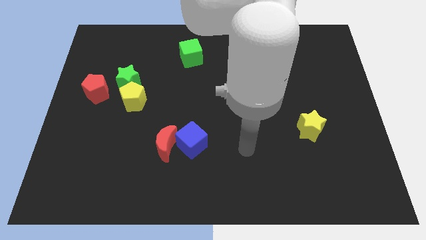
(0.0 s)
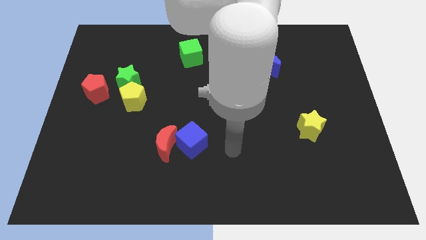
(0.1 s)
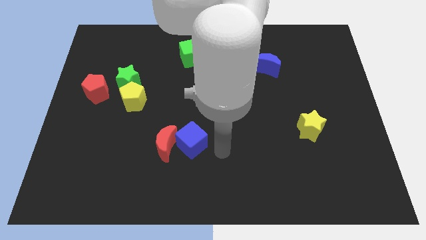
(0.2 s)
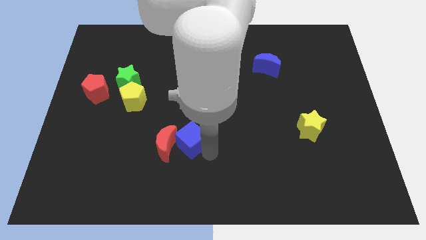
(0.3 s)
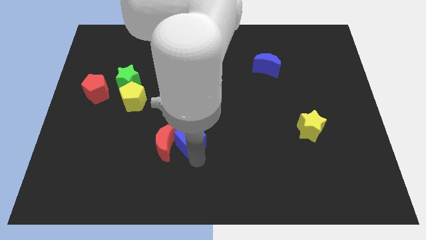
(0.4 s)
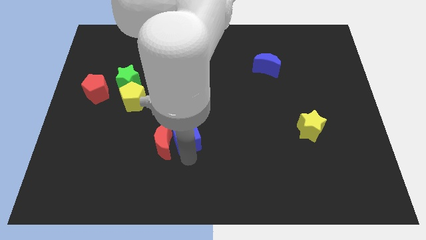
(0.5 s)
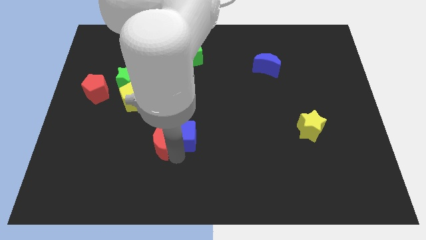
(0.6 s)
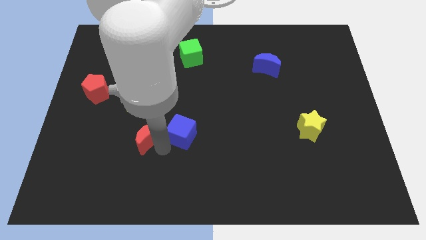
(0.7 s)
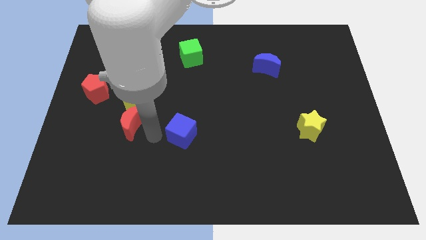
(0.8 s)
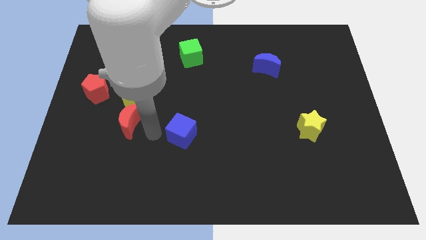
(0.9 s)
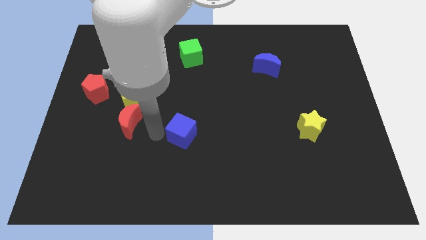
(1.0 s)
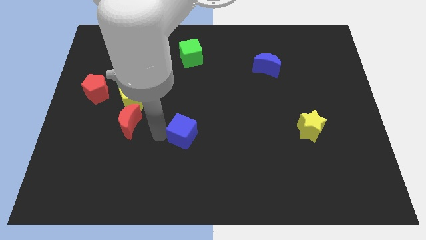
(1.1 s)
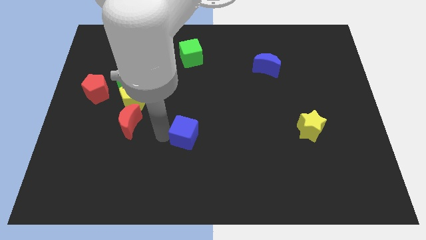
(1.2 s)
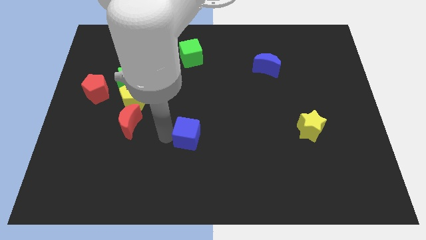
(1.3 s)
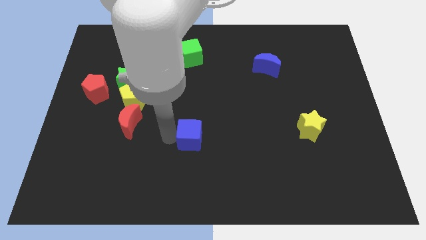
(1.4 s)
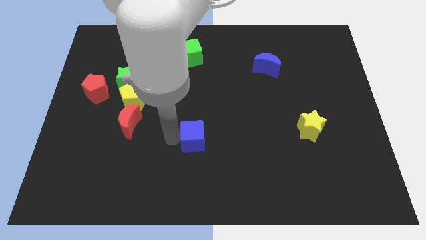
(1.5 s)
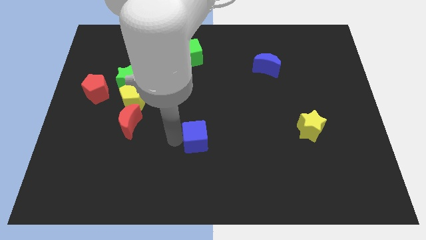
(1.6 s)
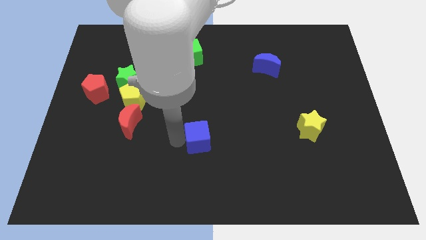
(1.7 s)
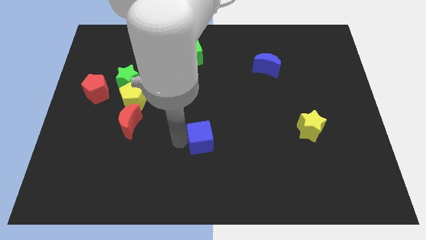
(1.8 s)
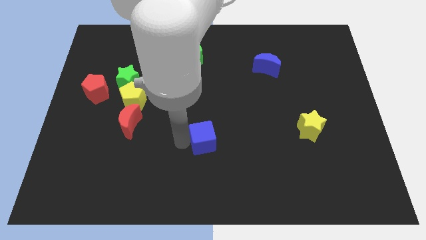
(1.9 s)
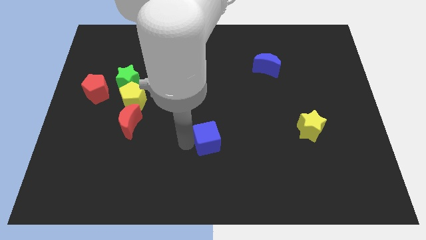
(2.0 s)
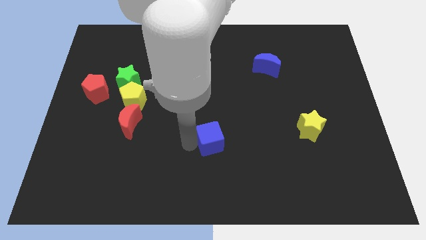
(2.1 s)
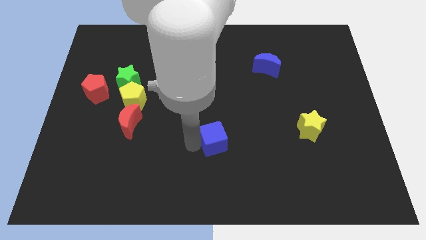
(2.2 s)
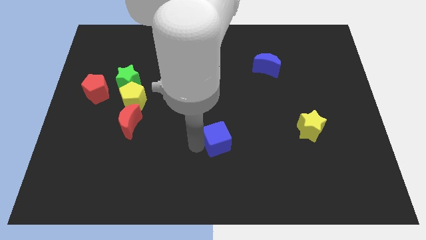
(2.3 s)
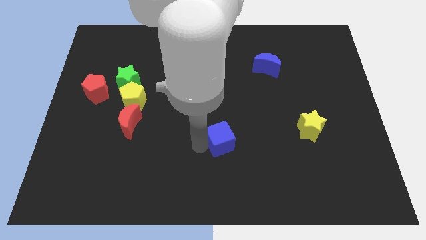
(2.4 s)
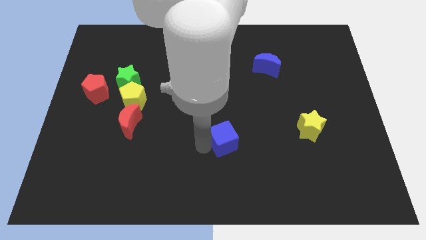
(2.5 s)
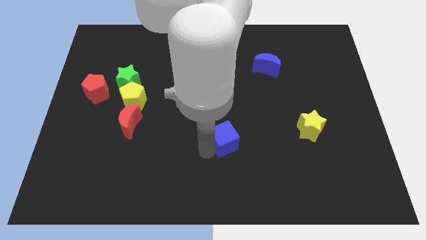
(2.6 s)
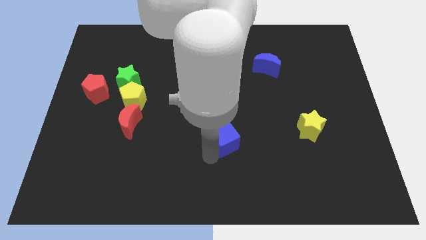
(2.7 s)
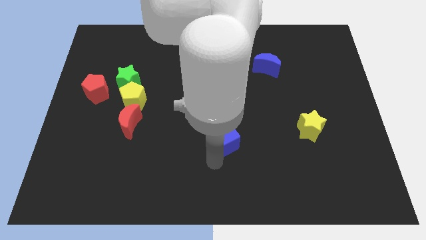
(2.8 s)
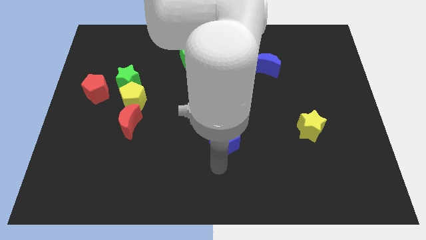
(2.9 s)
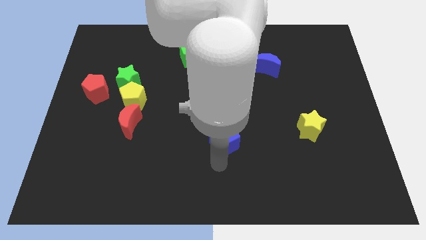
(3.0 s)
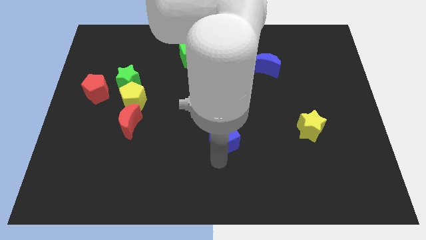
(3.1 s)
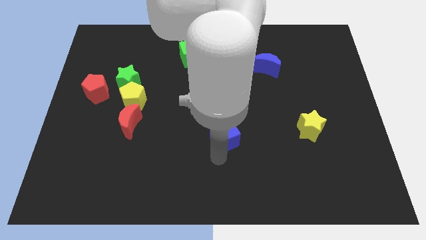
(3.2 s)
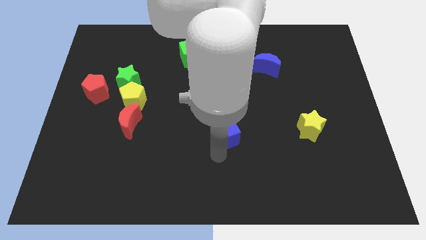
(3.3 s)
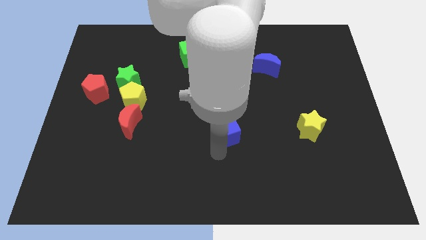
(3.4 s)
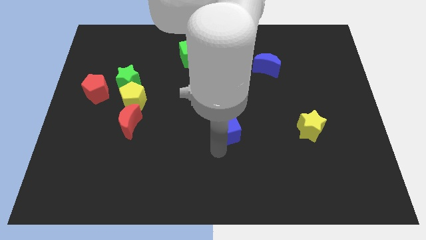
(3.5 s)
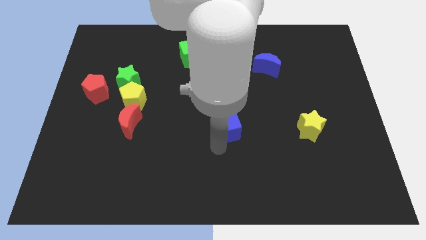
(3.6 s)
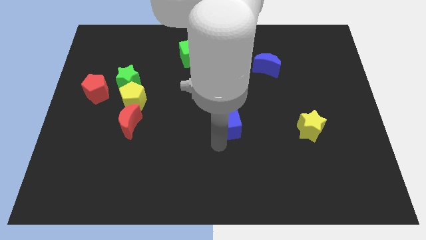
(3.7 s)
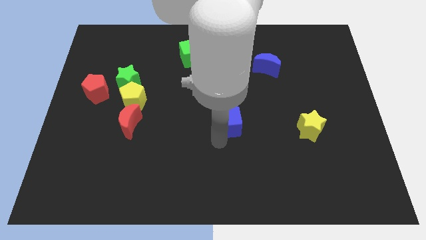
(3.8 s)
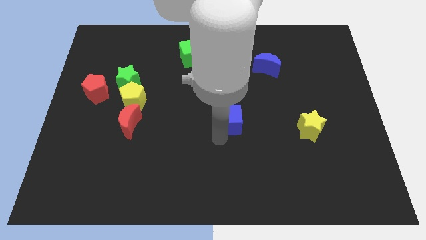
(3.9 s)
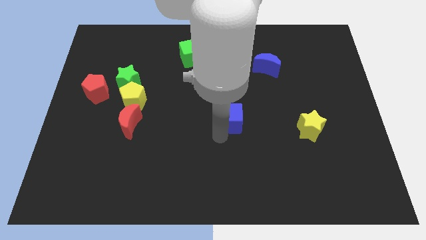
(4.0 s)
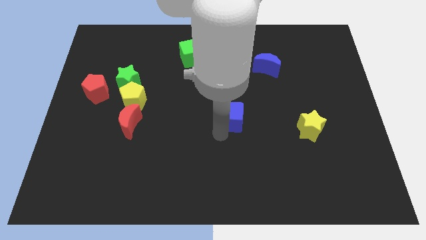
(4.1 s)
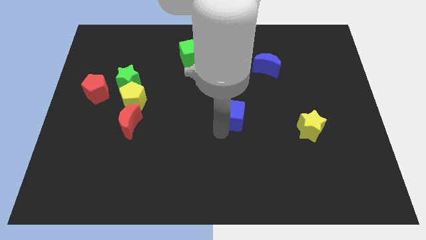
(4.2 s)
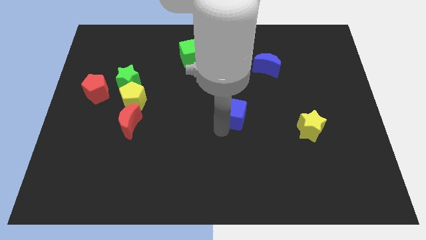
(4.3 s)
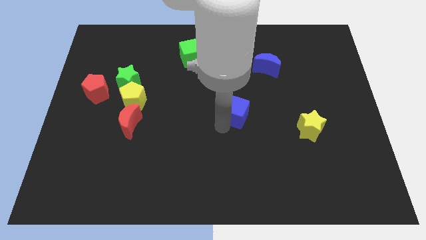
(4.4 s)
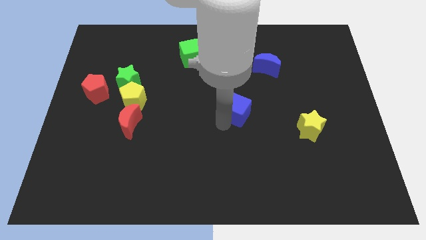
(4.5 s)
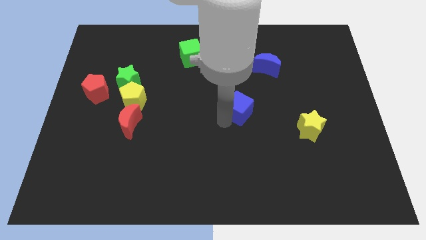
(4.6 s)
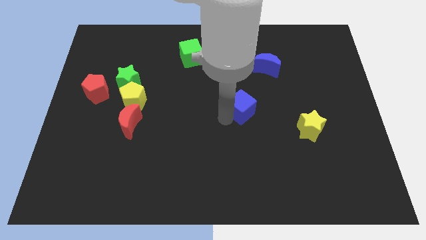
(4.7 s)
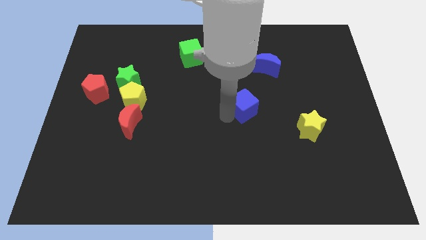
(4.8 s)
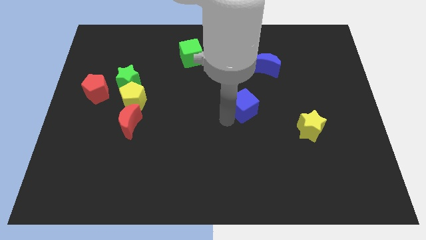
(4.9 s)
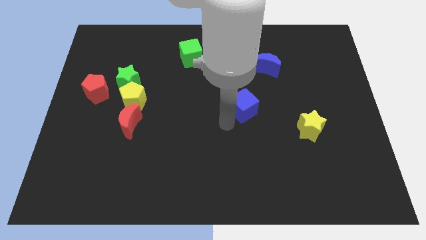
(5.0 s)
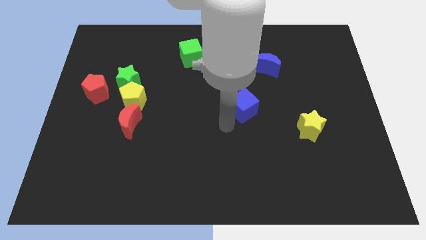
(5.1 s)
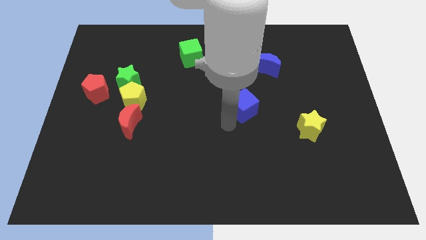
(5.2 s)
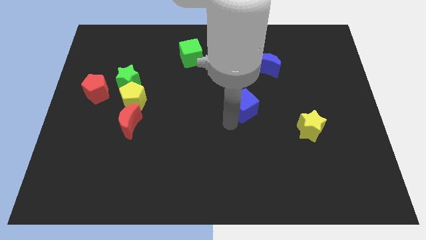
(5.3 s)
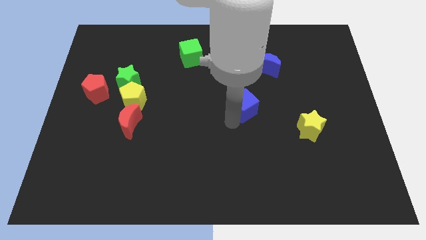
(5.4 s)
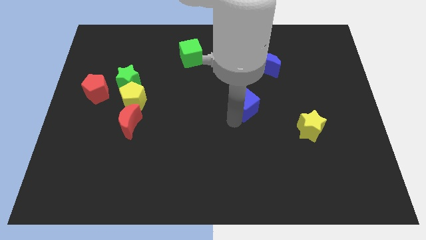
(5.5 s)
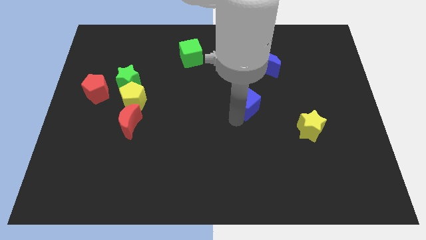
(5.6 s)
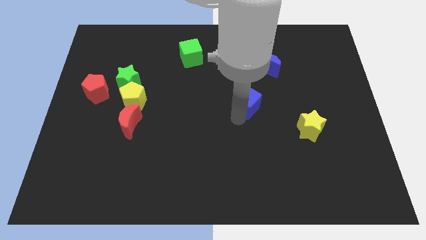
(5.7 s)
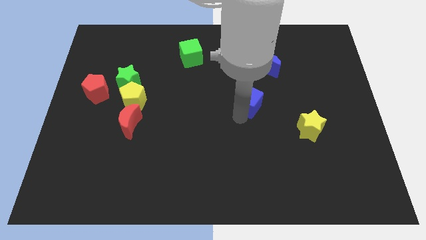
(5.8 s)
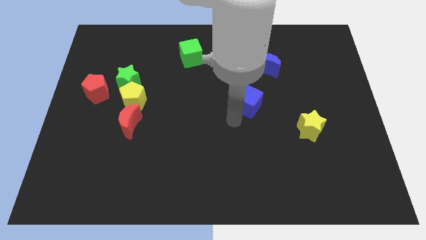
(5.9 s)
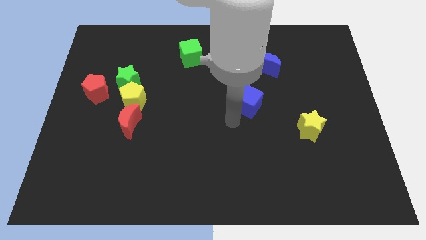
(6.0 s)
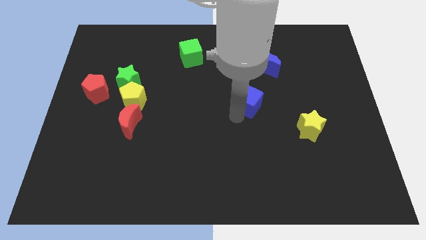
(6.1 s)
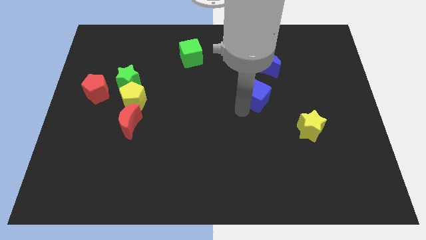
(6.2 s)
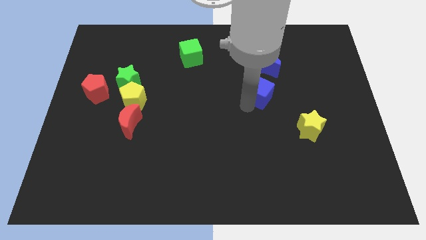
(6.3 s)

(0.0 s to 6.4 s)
push the blue cube up and to the right

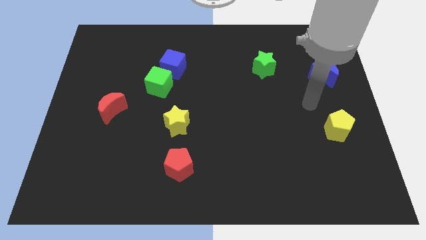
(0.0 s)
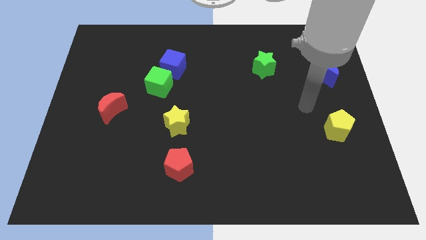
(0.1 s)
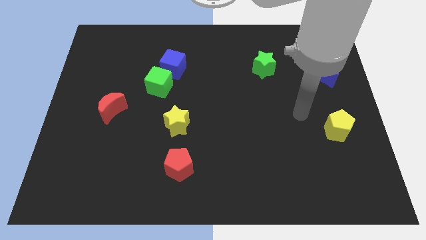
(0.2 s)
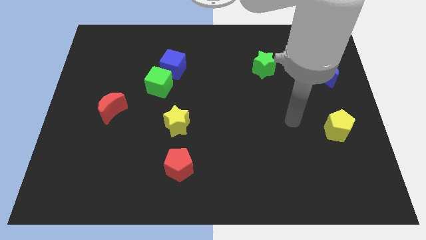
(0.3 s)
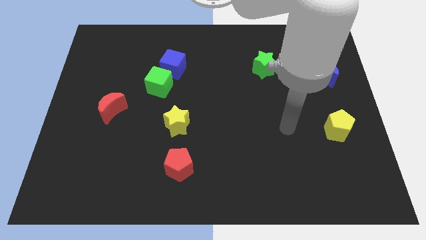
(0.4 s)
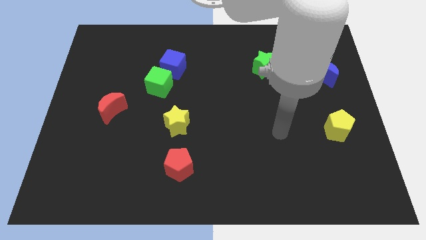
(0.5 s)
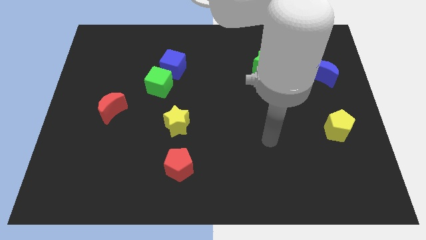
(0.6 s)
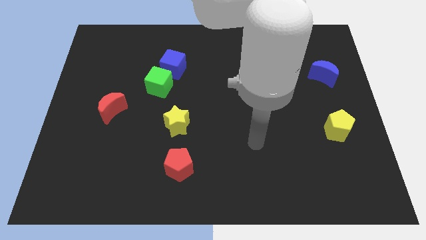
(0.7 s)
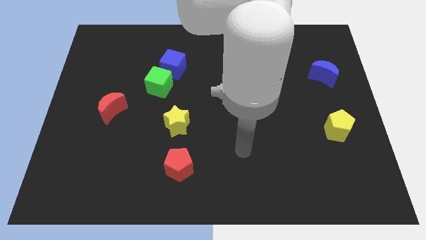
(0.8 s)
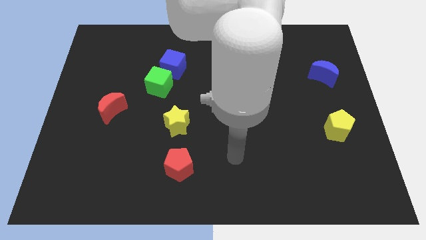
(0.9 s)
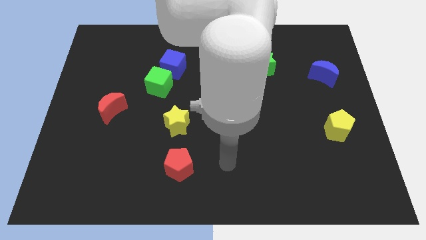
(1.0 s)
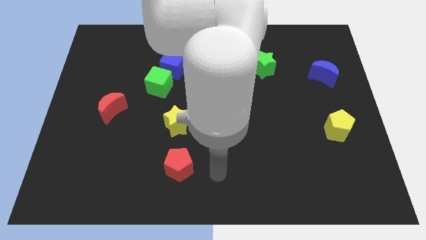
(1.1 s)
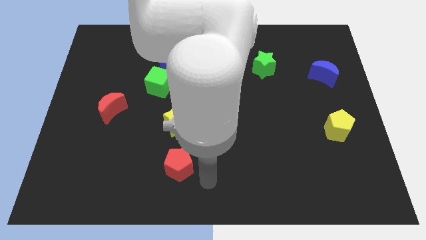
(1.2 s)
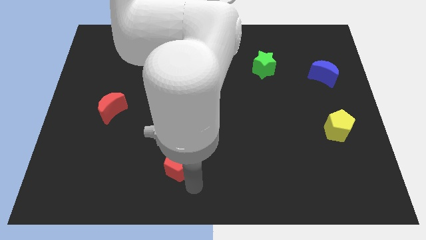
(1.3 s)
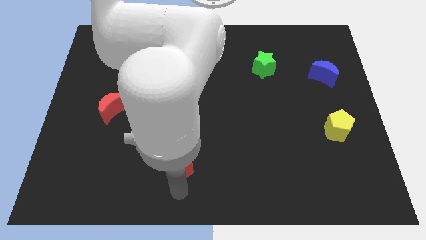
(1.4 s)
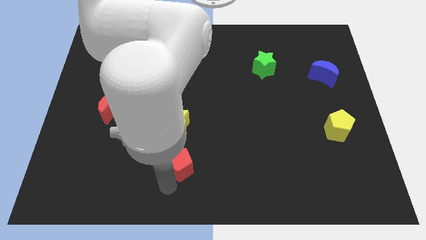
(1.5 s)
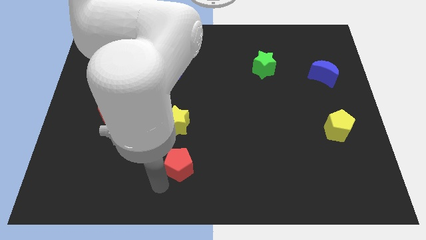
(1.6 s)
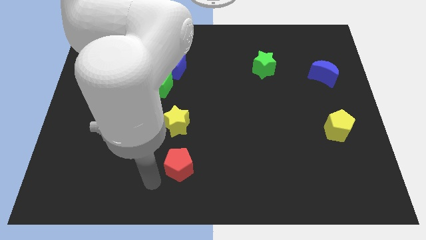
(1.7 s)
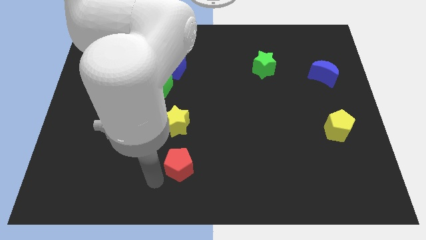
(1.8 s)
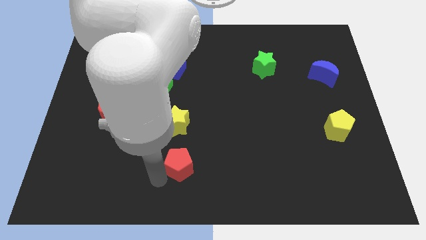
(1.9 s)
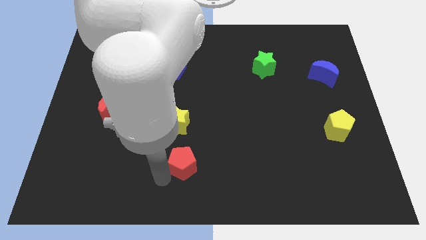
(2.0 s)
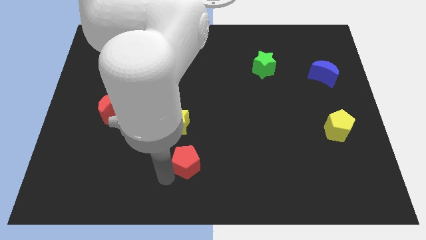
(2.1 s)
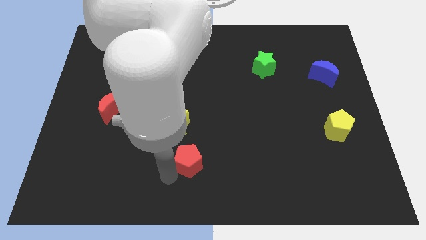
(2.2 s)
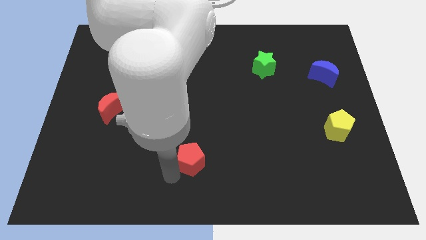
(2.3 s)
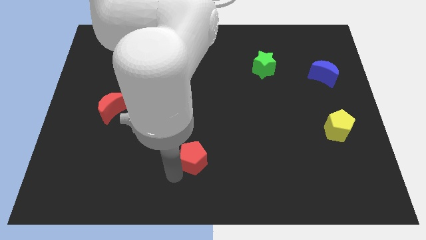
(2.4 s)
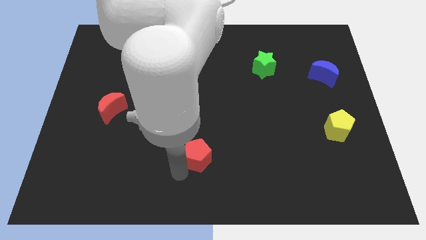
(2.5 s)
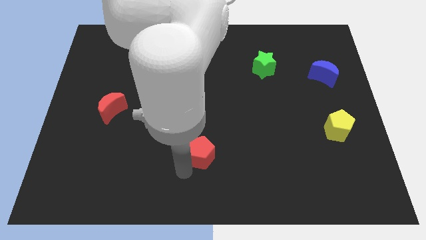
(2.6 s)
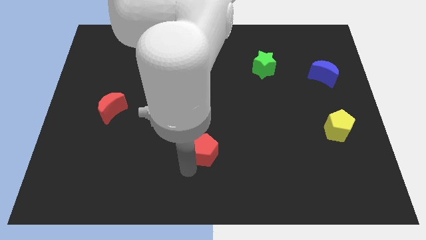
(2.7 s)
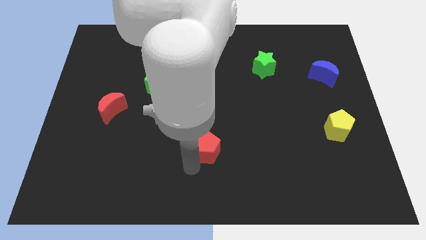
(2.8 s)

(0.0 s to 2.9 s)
push the red pentagon upwards and to the right diagonally somewhat
